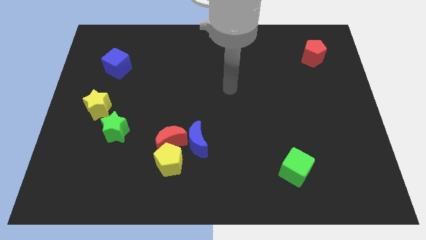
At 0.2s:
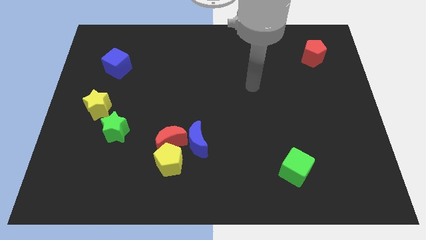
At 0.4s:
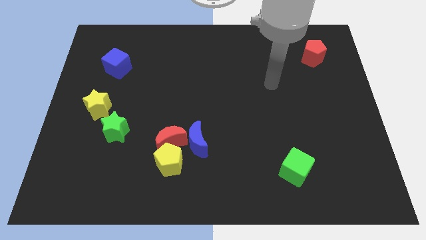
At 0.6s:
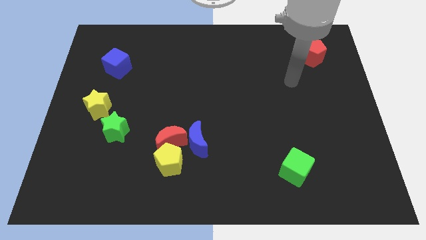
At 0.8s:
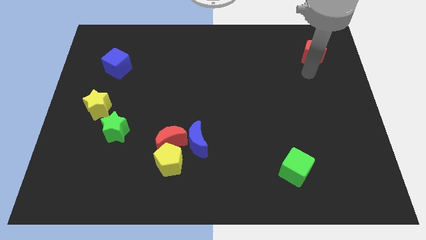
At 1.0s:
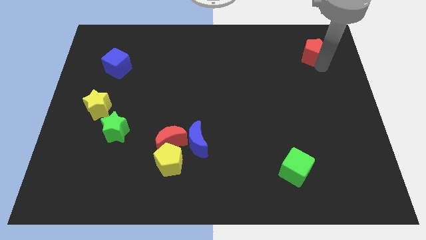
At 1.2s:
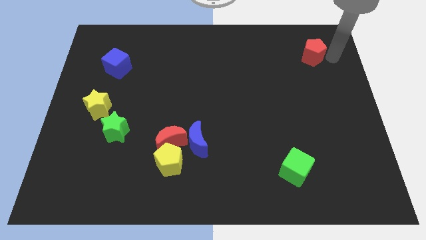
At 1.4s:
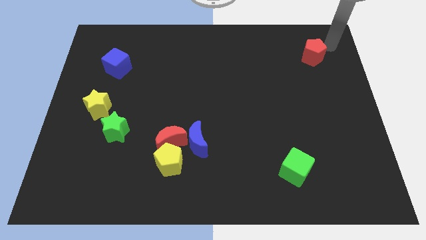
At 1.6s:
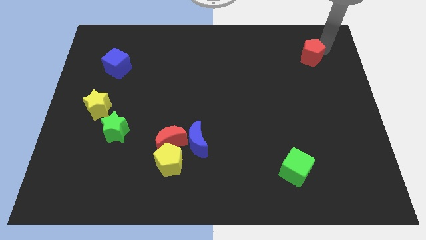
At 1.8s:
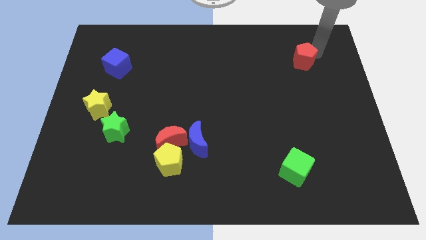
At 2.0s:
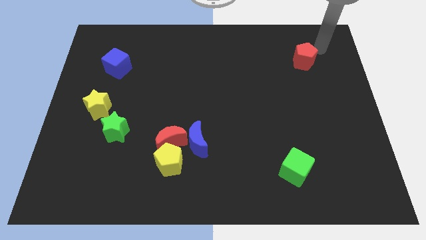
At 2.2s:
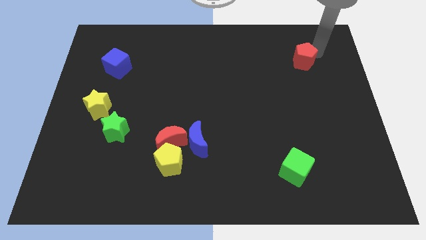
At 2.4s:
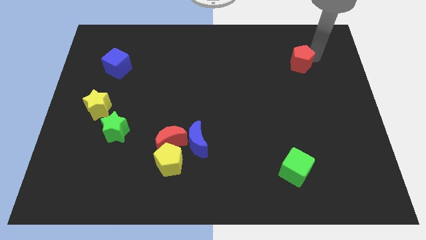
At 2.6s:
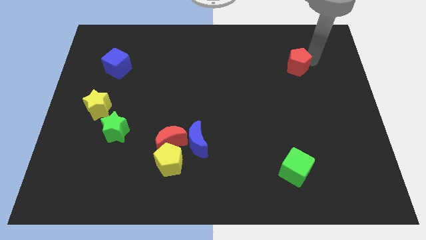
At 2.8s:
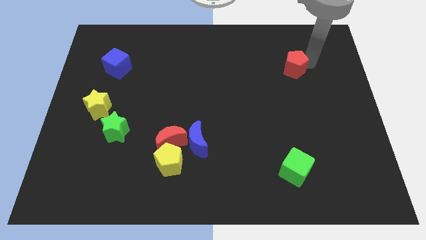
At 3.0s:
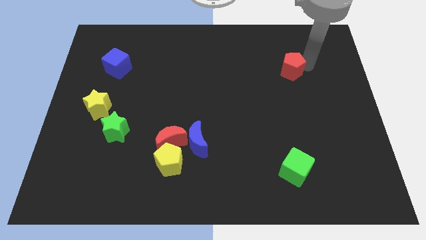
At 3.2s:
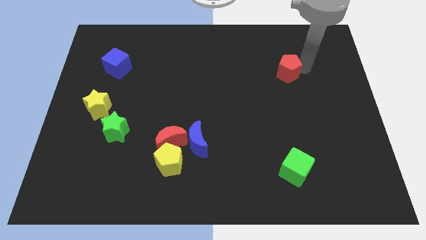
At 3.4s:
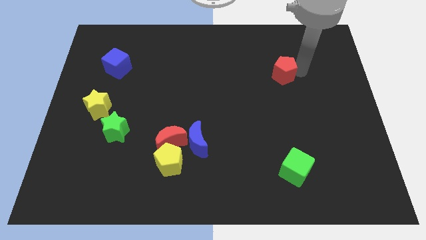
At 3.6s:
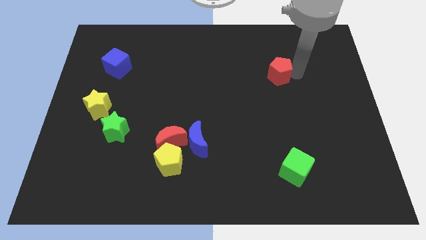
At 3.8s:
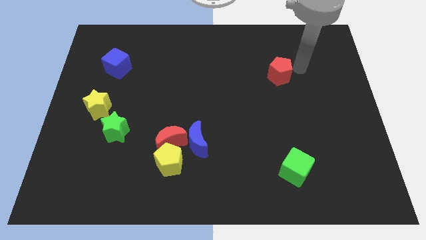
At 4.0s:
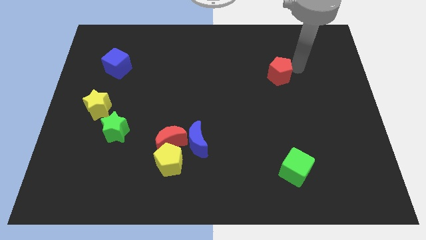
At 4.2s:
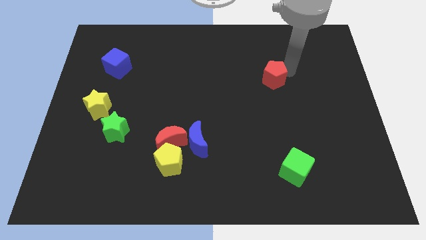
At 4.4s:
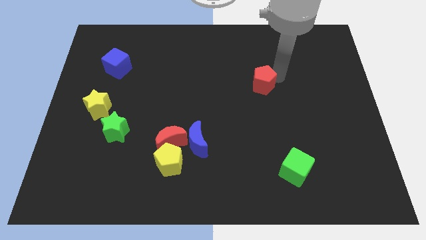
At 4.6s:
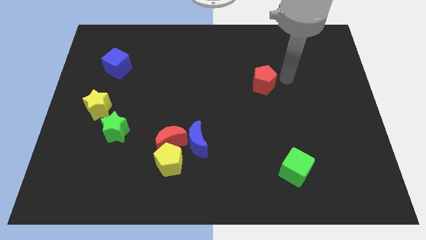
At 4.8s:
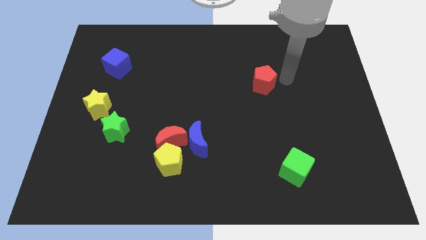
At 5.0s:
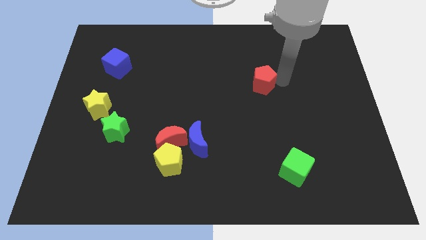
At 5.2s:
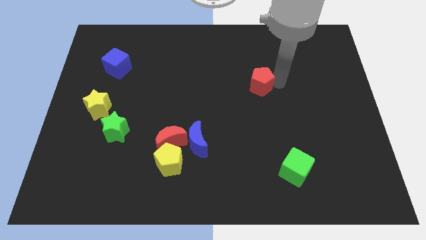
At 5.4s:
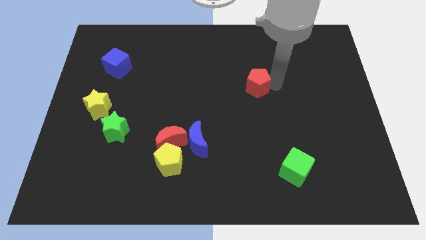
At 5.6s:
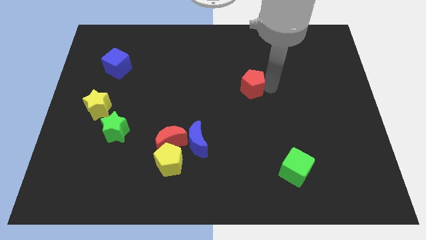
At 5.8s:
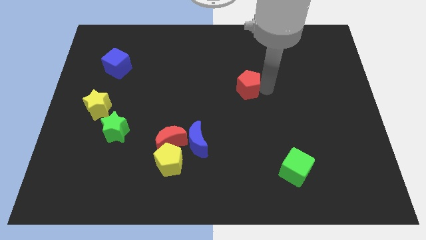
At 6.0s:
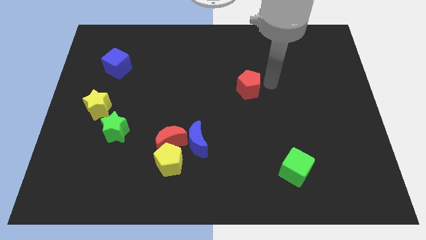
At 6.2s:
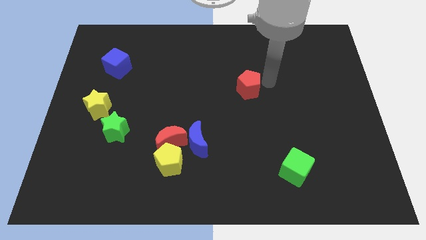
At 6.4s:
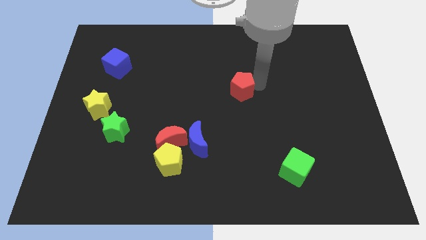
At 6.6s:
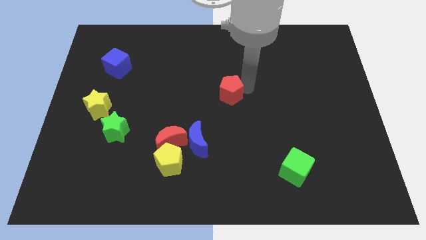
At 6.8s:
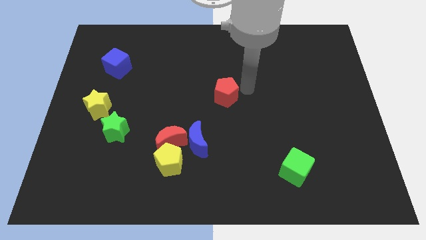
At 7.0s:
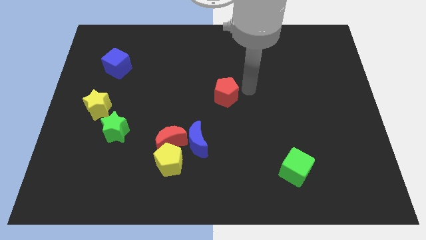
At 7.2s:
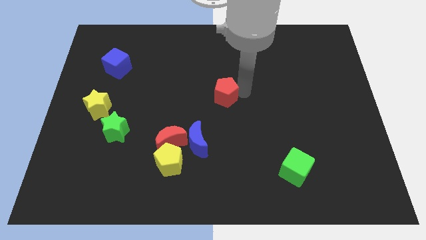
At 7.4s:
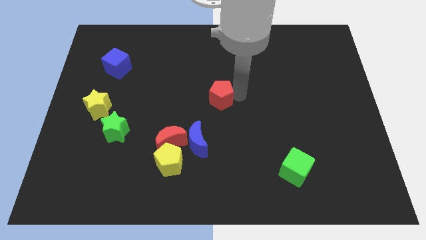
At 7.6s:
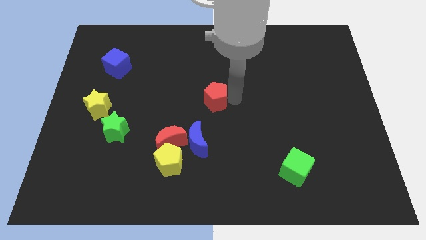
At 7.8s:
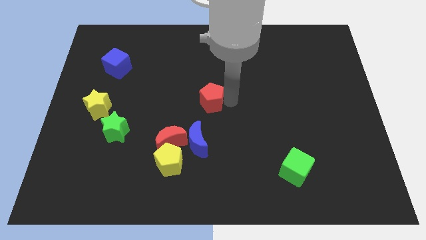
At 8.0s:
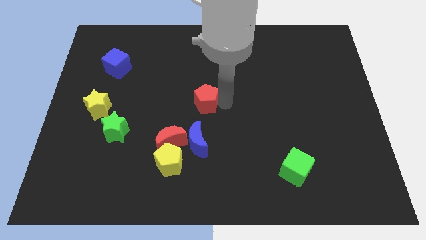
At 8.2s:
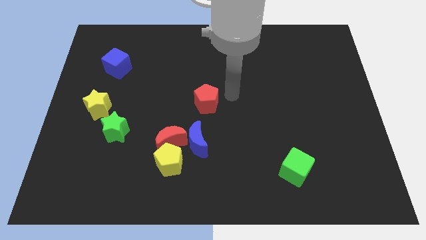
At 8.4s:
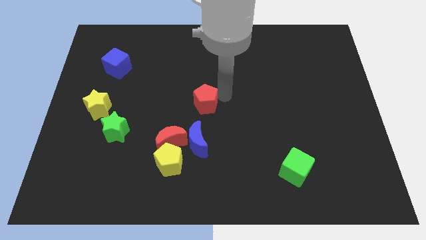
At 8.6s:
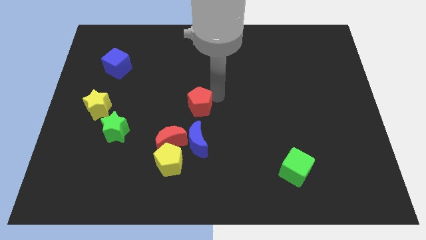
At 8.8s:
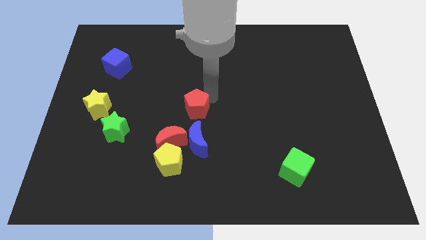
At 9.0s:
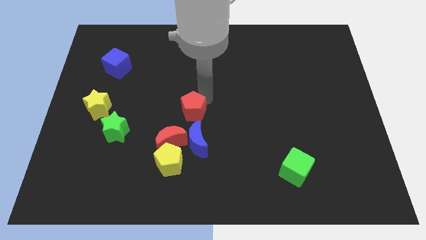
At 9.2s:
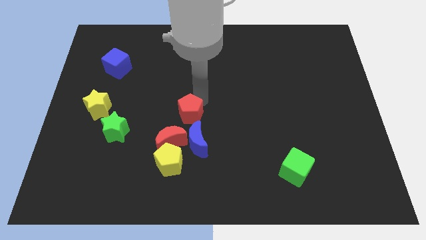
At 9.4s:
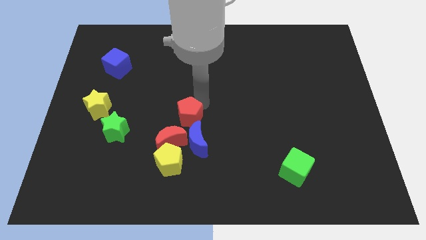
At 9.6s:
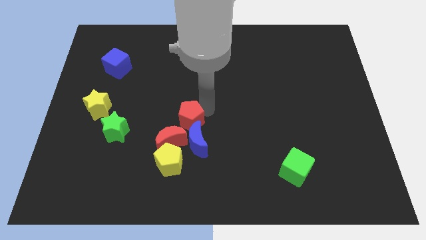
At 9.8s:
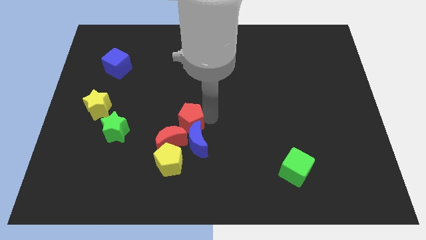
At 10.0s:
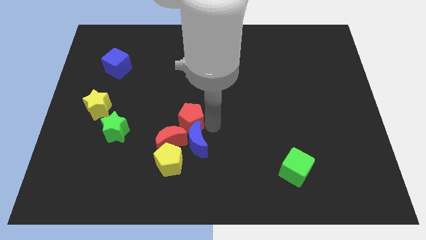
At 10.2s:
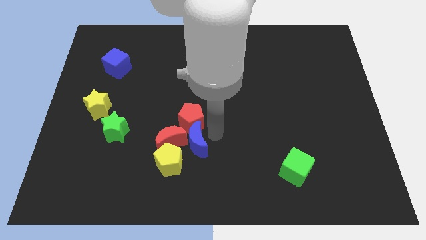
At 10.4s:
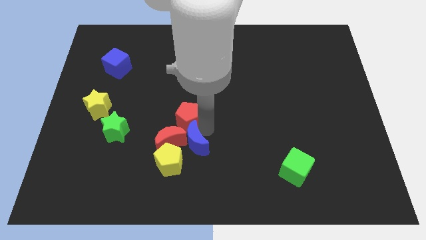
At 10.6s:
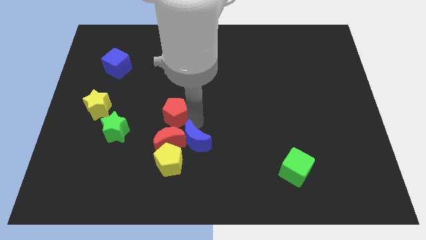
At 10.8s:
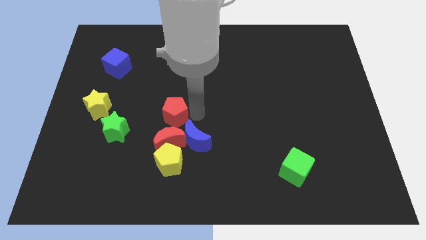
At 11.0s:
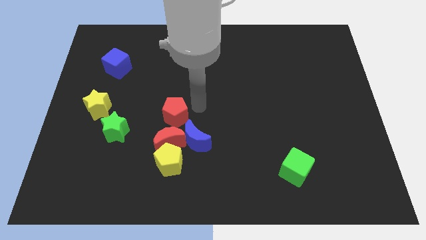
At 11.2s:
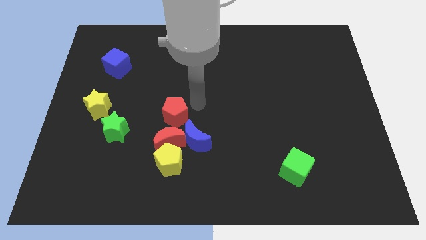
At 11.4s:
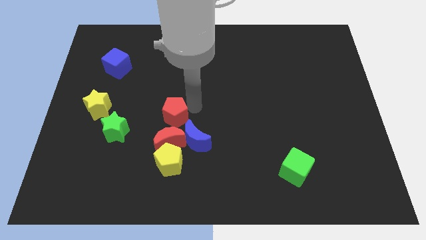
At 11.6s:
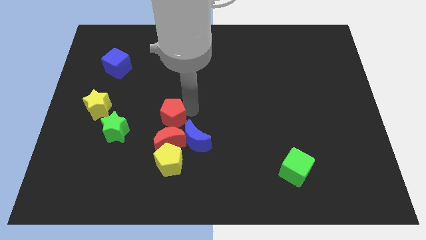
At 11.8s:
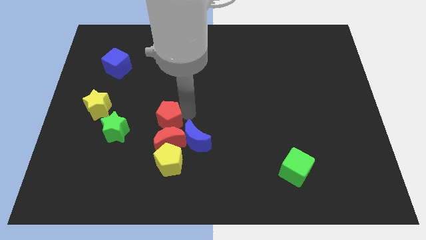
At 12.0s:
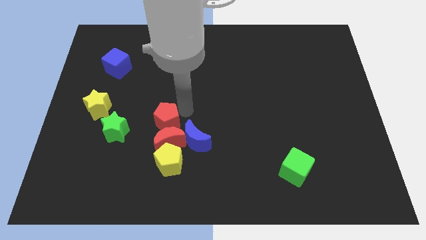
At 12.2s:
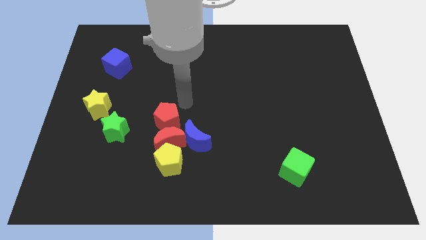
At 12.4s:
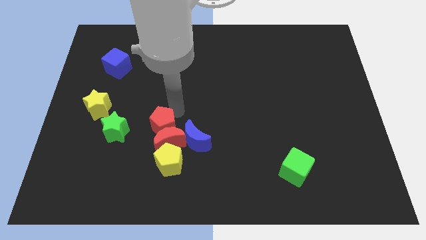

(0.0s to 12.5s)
move the red pentagon to the top left of the yellow pentagon

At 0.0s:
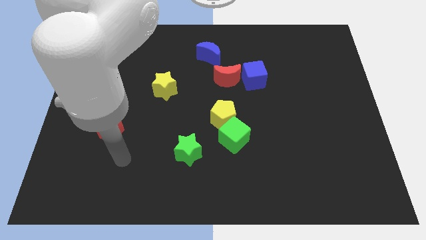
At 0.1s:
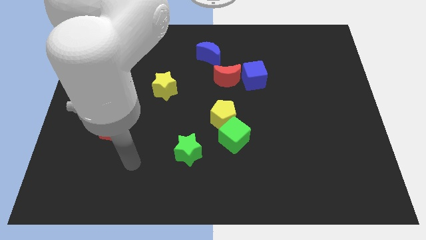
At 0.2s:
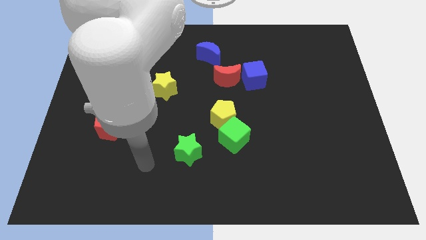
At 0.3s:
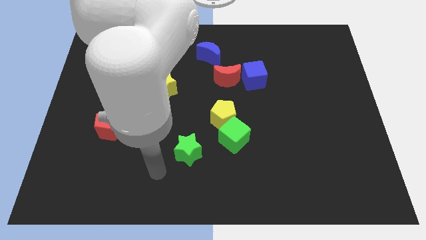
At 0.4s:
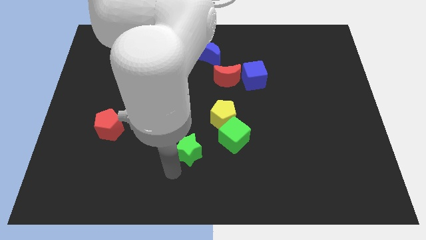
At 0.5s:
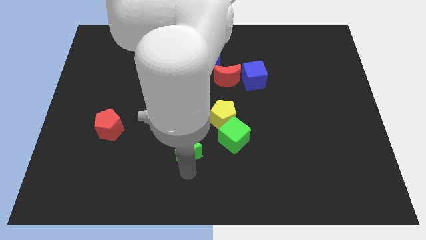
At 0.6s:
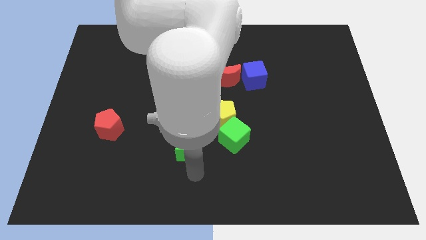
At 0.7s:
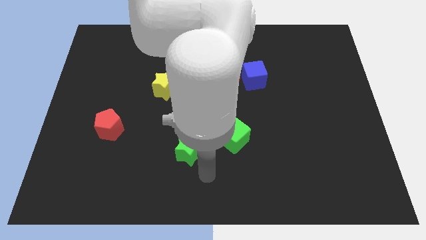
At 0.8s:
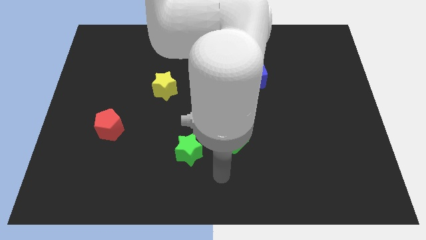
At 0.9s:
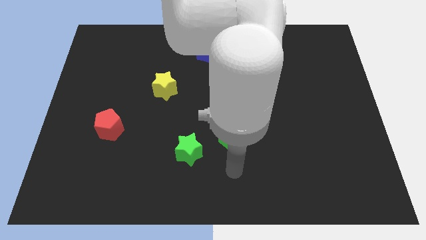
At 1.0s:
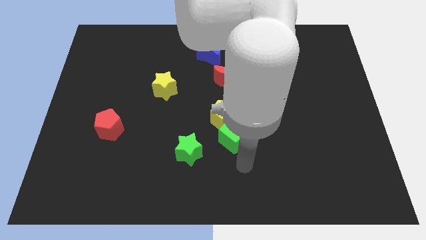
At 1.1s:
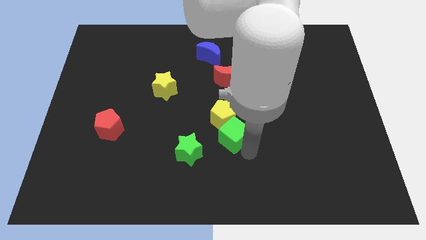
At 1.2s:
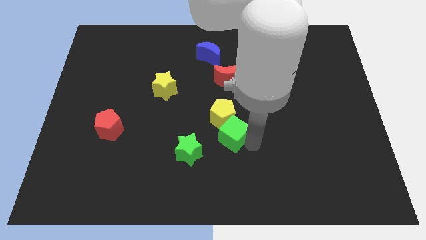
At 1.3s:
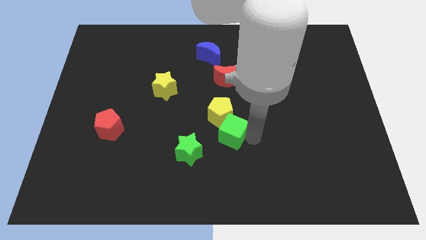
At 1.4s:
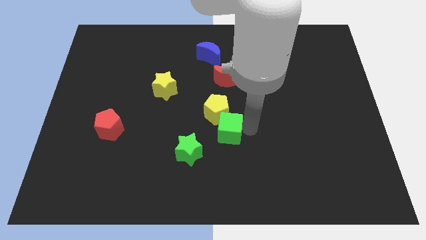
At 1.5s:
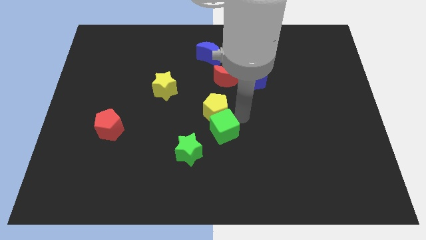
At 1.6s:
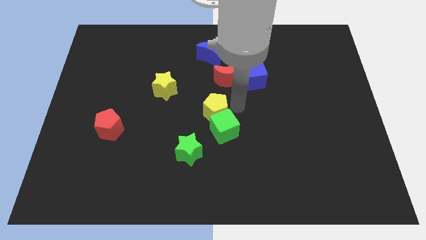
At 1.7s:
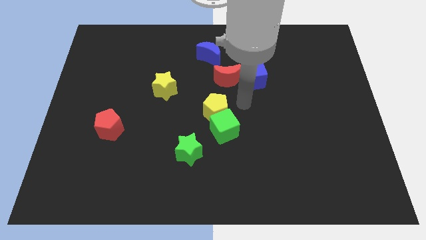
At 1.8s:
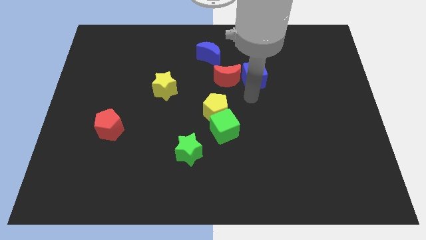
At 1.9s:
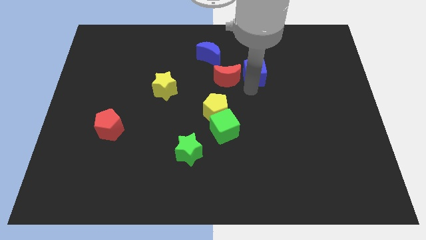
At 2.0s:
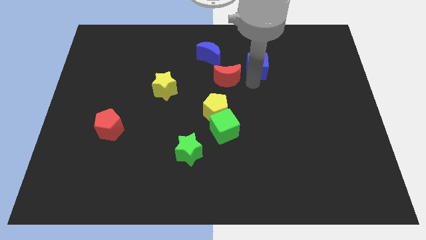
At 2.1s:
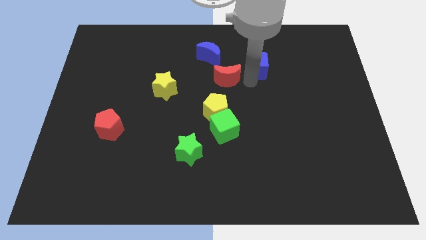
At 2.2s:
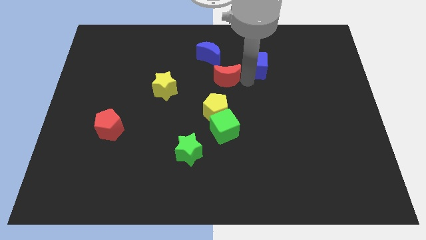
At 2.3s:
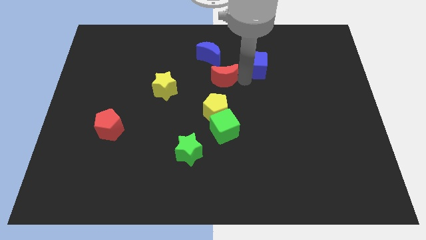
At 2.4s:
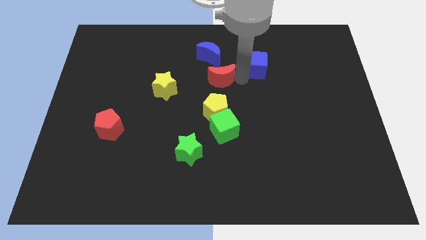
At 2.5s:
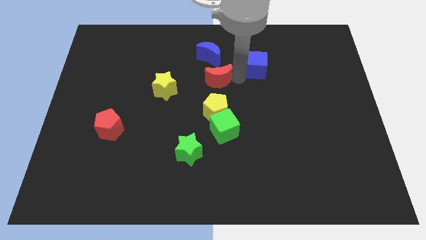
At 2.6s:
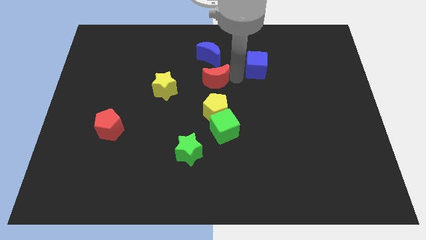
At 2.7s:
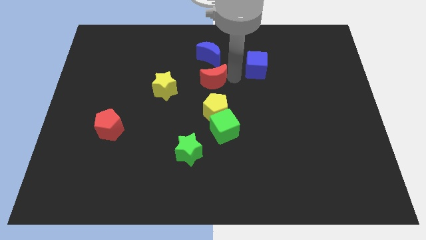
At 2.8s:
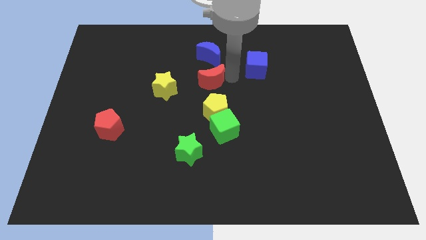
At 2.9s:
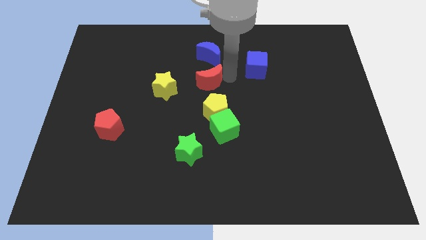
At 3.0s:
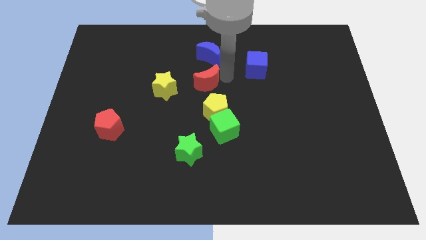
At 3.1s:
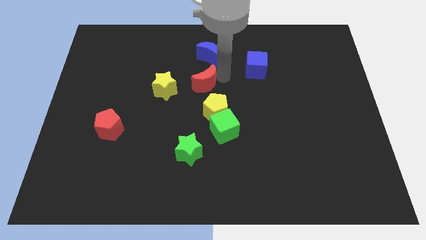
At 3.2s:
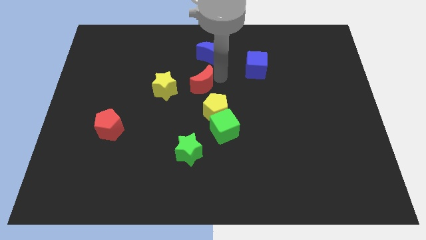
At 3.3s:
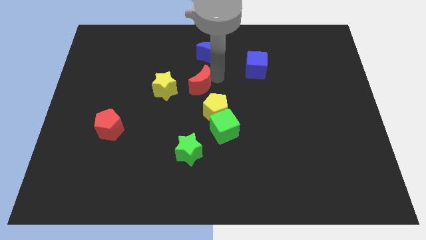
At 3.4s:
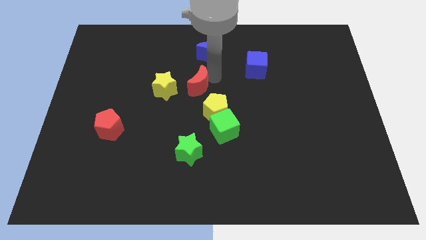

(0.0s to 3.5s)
move the red moon to the top right side of the yellow star
